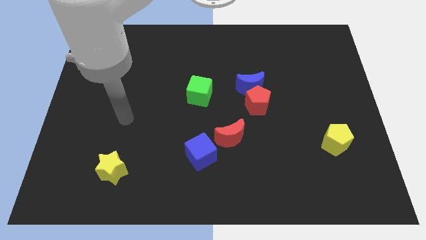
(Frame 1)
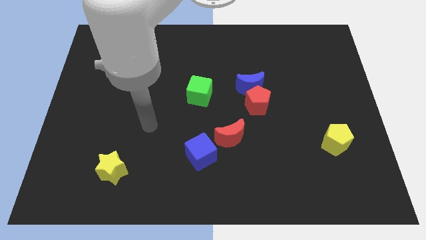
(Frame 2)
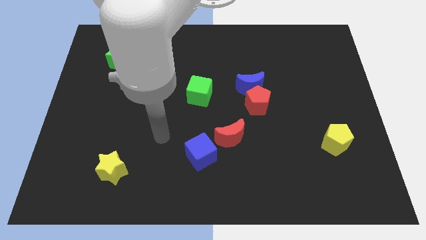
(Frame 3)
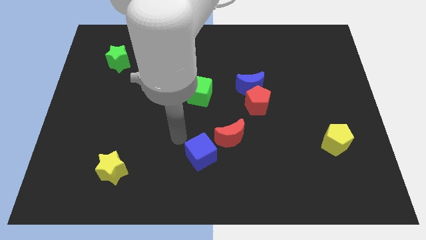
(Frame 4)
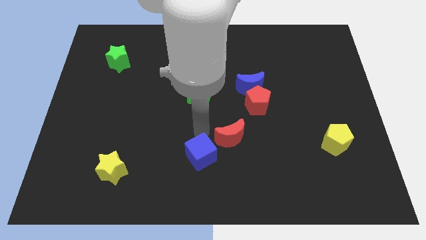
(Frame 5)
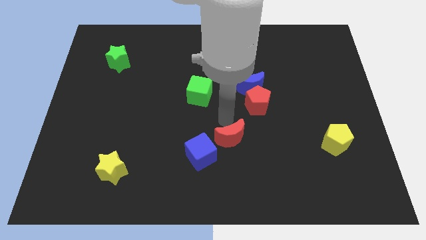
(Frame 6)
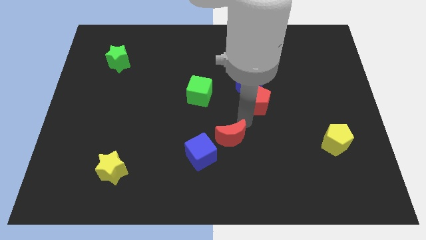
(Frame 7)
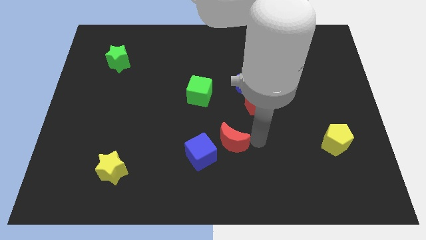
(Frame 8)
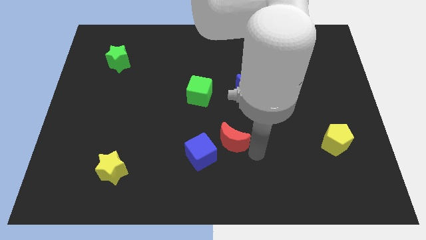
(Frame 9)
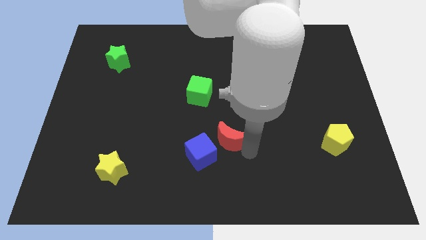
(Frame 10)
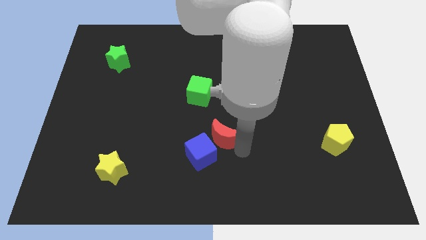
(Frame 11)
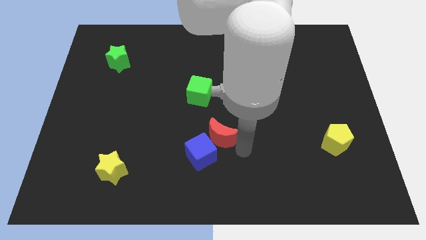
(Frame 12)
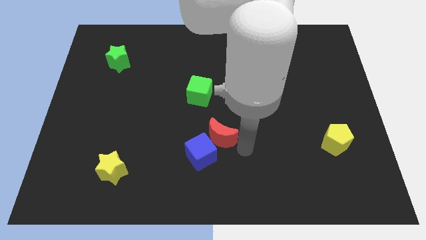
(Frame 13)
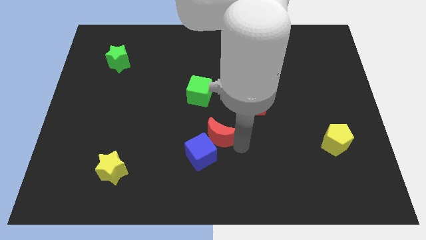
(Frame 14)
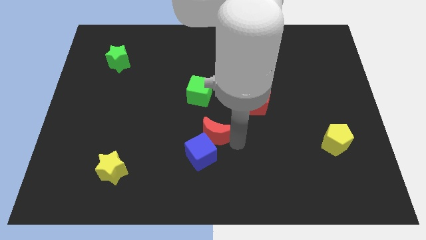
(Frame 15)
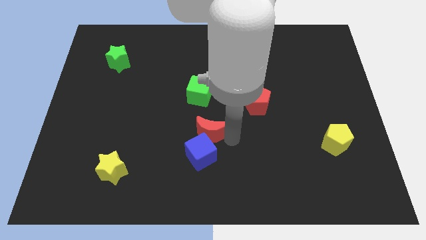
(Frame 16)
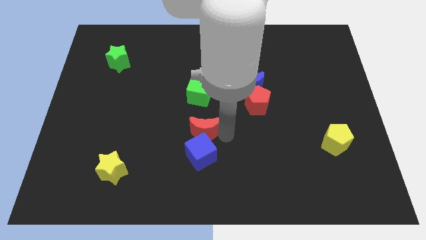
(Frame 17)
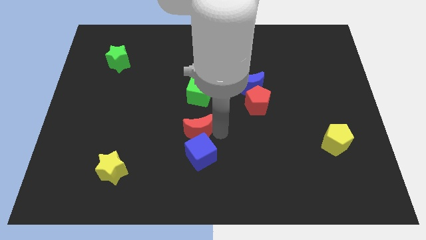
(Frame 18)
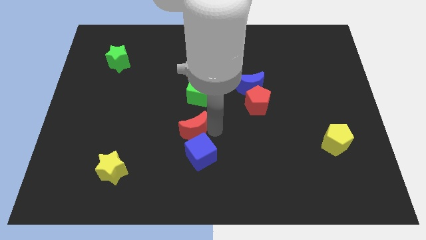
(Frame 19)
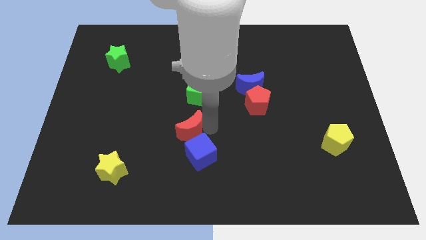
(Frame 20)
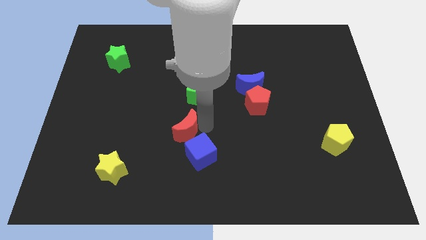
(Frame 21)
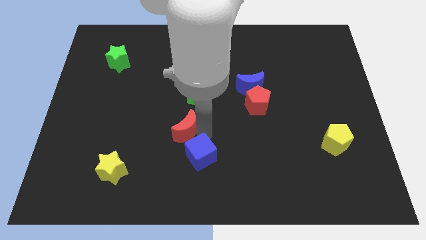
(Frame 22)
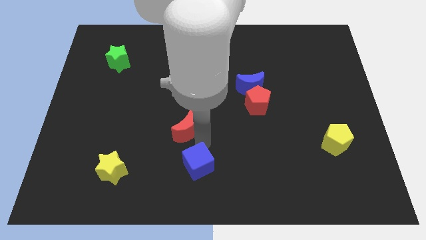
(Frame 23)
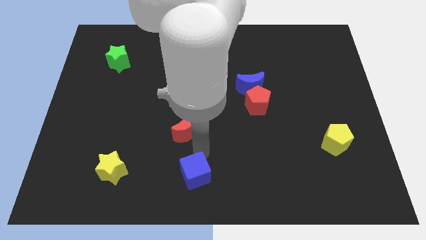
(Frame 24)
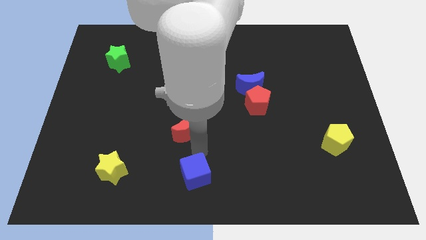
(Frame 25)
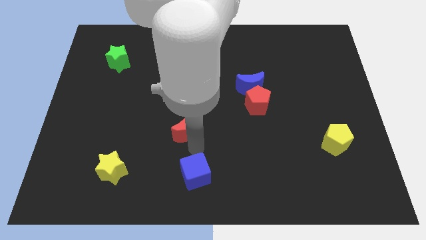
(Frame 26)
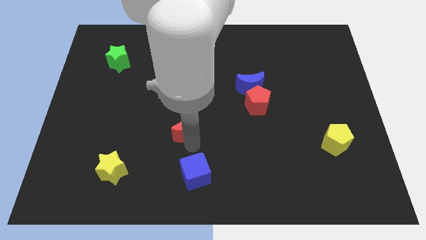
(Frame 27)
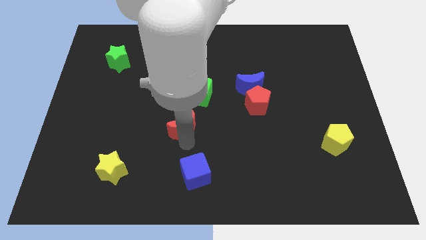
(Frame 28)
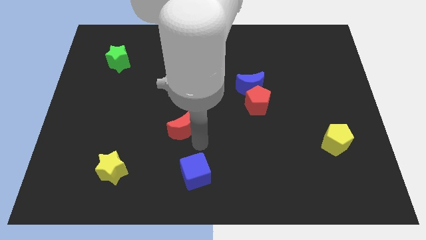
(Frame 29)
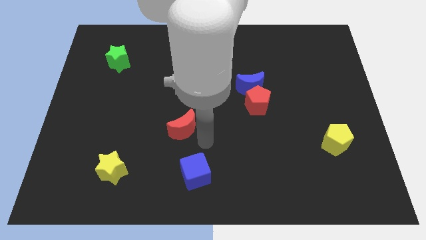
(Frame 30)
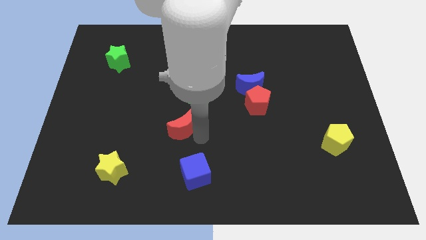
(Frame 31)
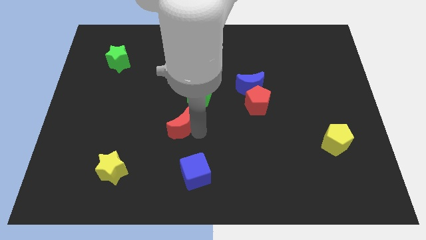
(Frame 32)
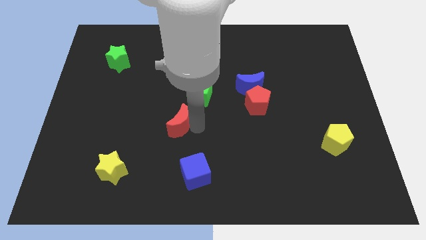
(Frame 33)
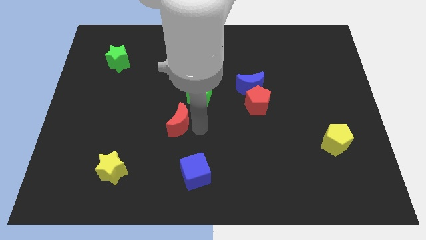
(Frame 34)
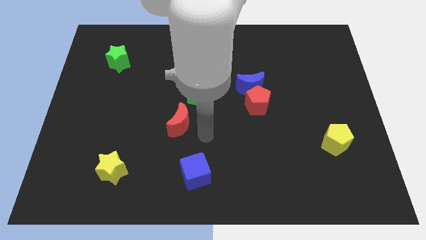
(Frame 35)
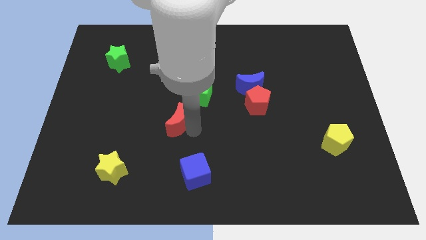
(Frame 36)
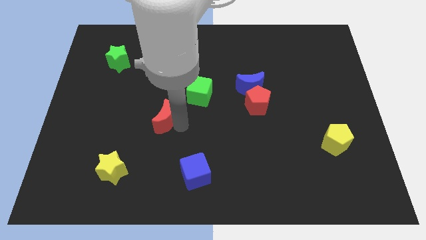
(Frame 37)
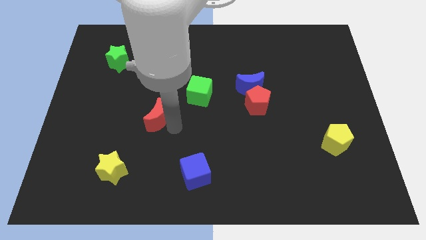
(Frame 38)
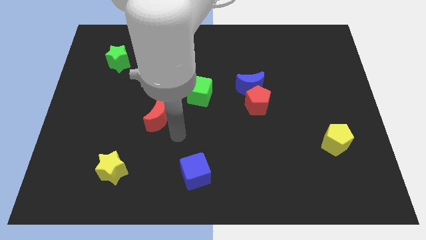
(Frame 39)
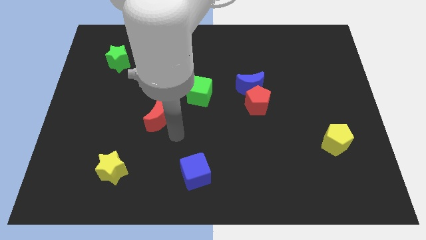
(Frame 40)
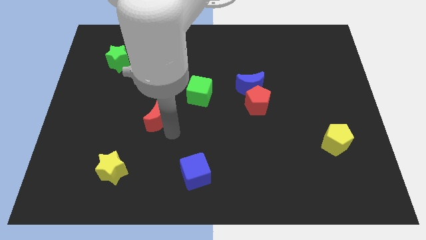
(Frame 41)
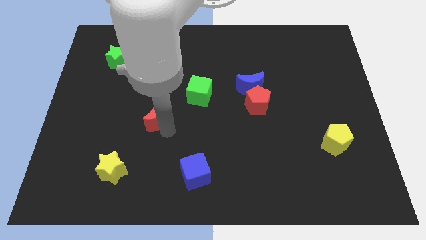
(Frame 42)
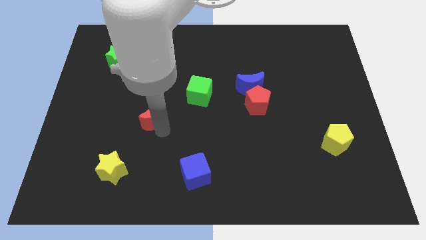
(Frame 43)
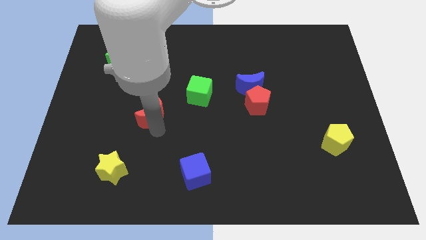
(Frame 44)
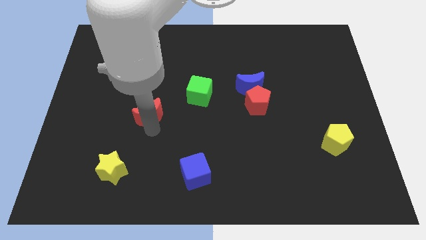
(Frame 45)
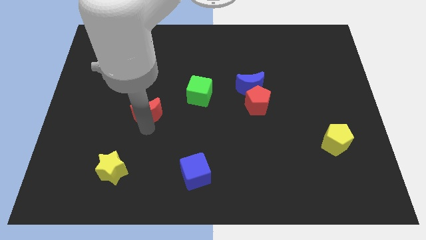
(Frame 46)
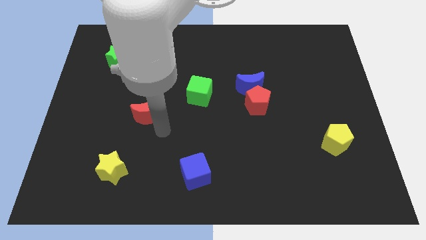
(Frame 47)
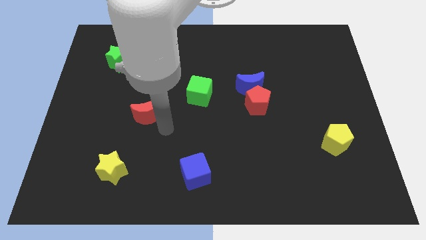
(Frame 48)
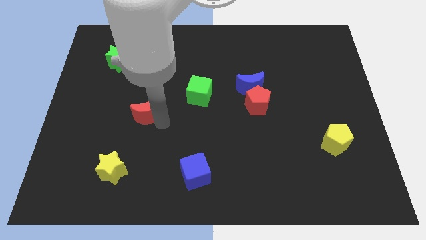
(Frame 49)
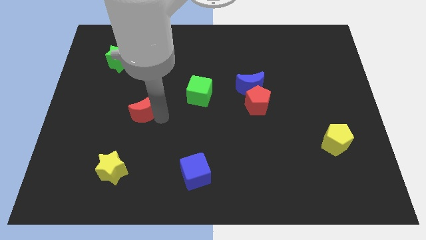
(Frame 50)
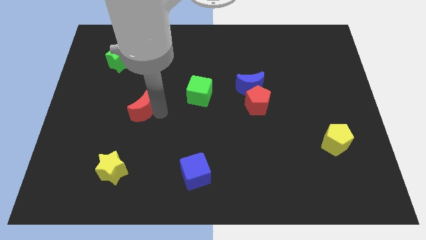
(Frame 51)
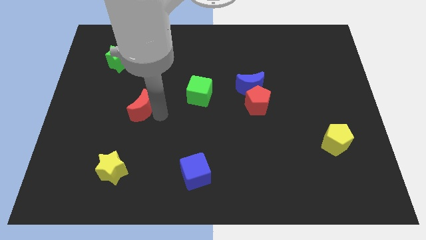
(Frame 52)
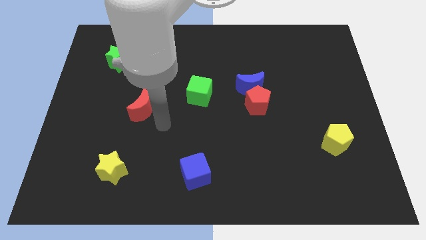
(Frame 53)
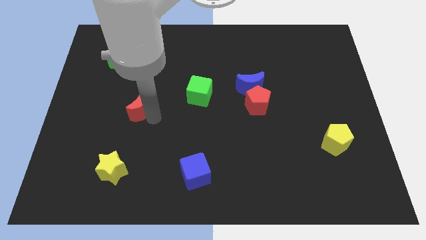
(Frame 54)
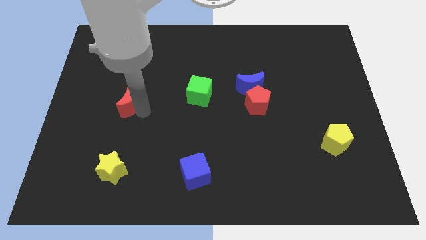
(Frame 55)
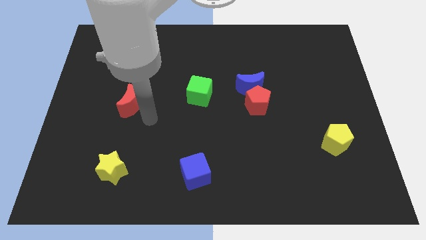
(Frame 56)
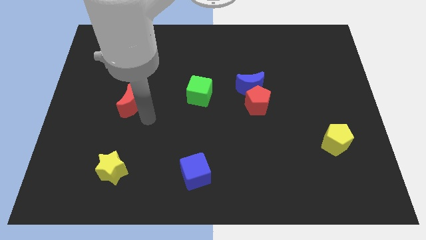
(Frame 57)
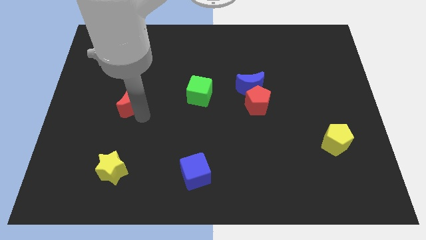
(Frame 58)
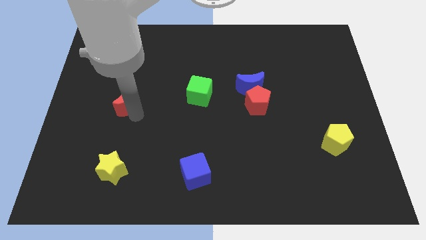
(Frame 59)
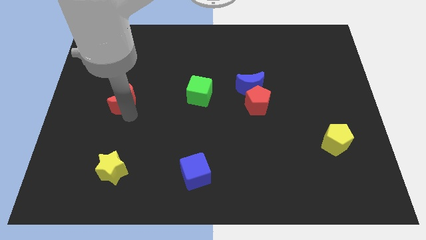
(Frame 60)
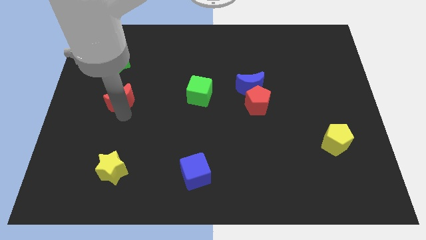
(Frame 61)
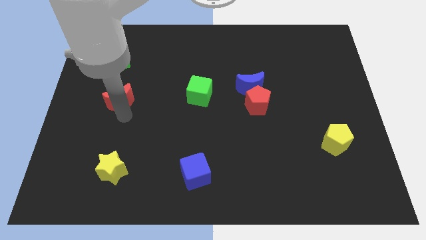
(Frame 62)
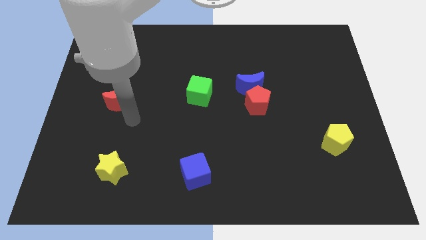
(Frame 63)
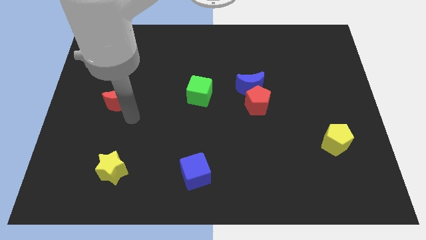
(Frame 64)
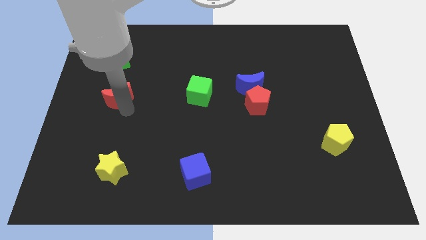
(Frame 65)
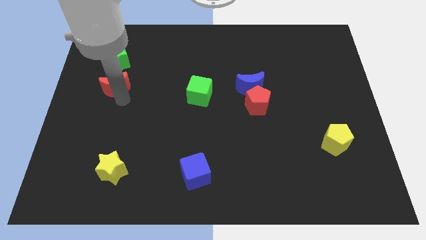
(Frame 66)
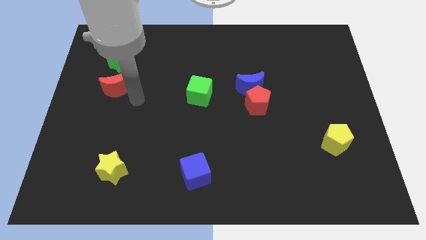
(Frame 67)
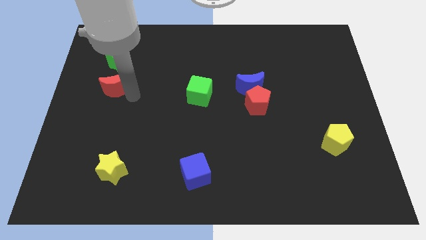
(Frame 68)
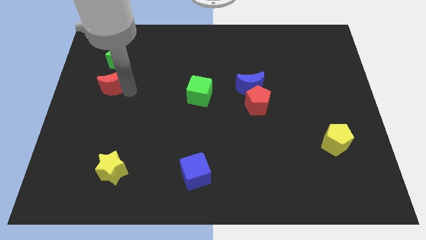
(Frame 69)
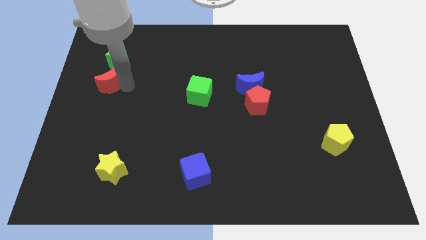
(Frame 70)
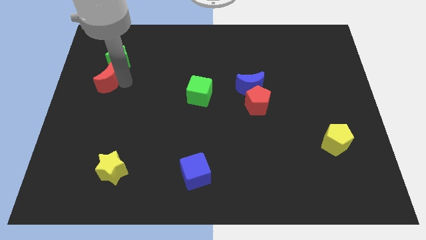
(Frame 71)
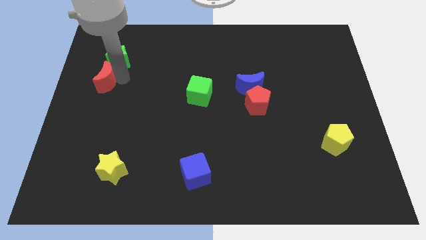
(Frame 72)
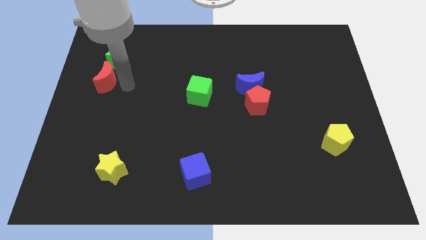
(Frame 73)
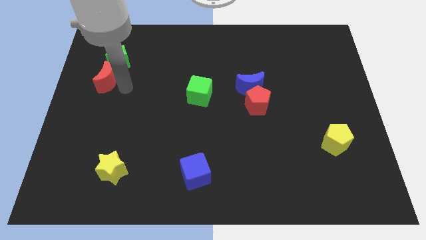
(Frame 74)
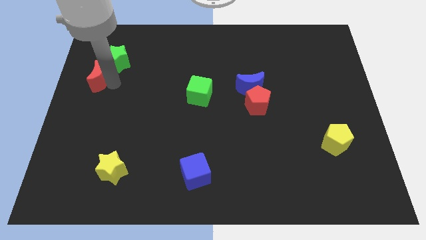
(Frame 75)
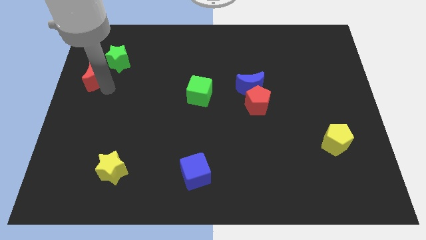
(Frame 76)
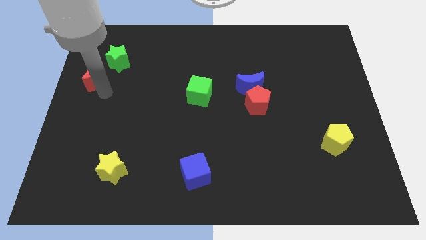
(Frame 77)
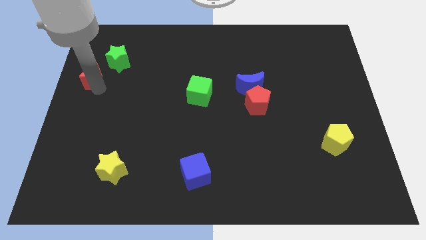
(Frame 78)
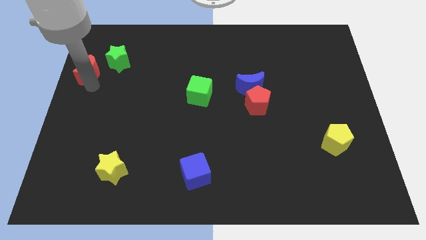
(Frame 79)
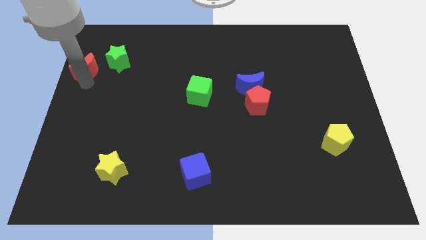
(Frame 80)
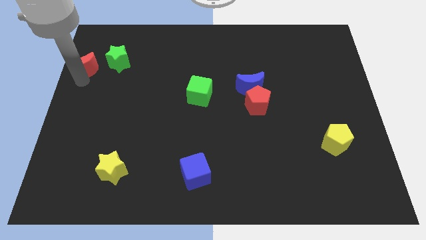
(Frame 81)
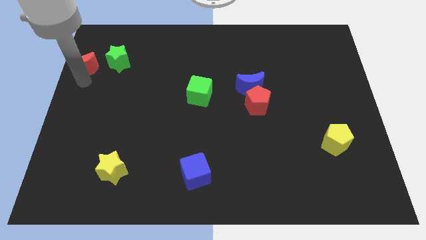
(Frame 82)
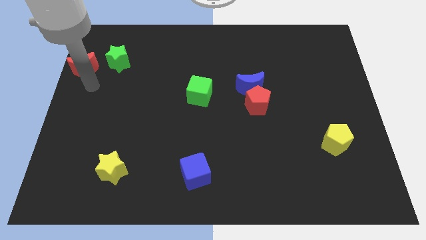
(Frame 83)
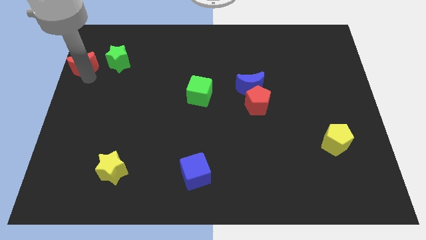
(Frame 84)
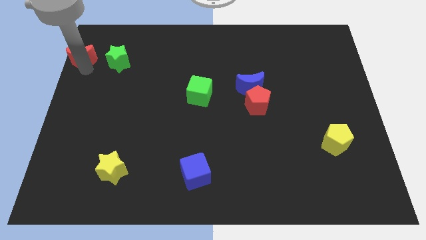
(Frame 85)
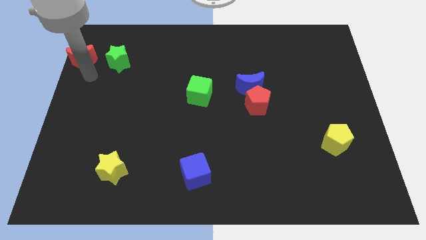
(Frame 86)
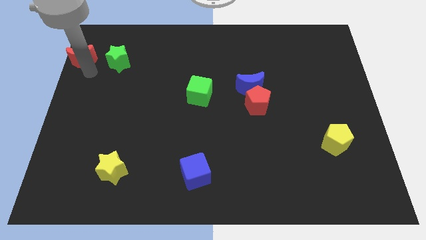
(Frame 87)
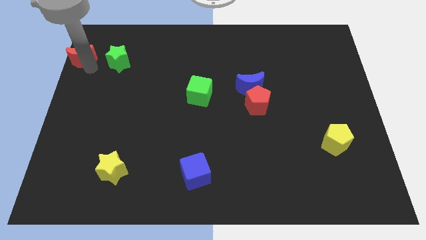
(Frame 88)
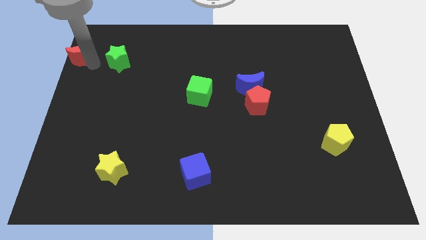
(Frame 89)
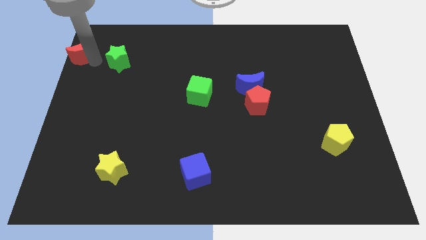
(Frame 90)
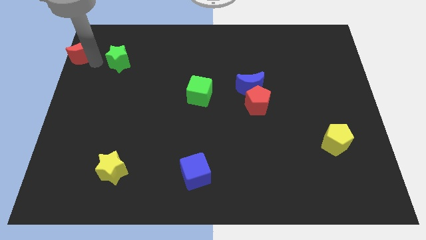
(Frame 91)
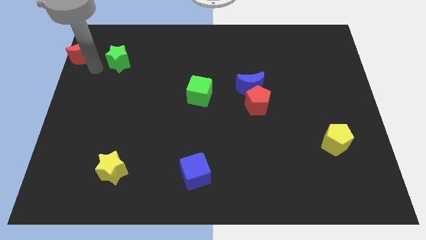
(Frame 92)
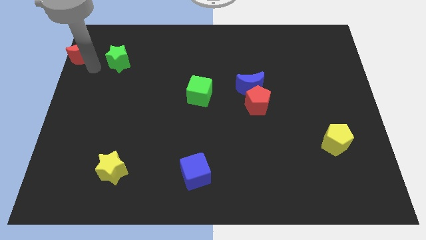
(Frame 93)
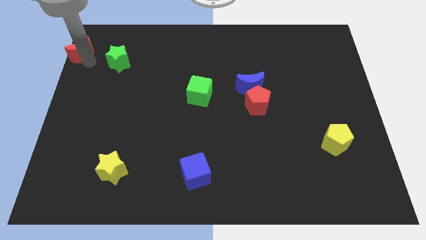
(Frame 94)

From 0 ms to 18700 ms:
put the red moon to the top left
